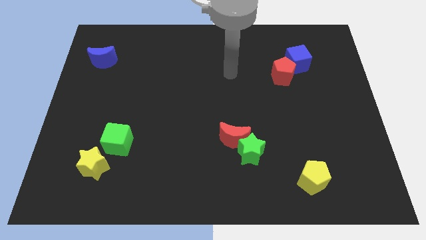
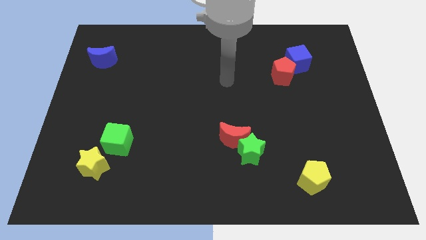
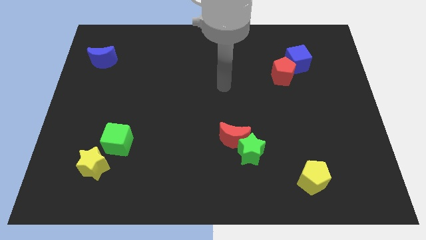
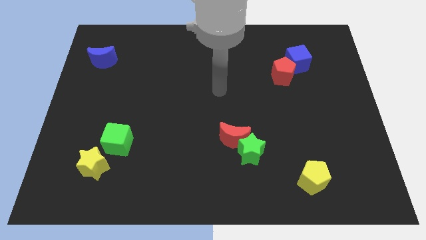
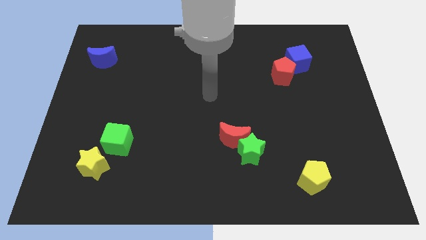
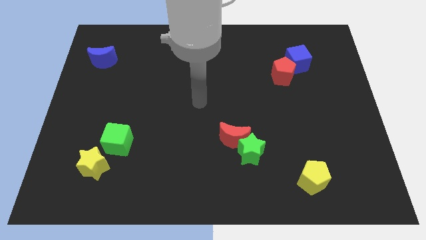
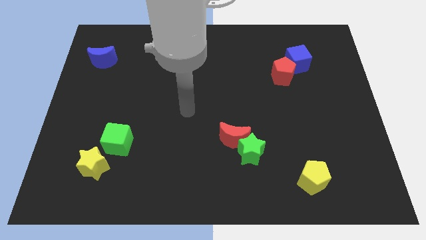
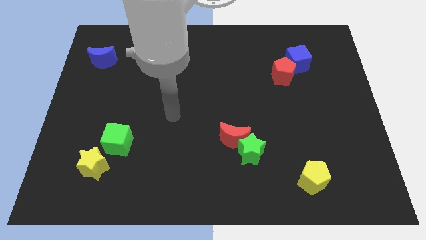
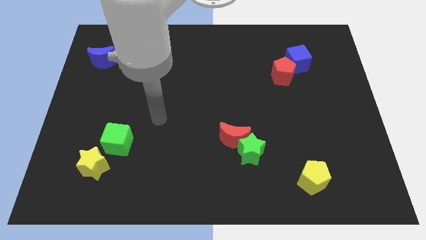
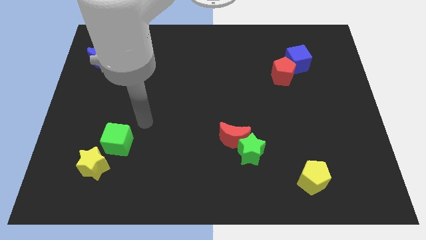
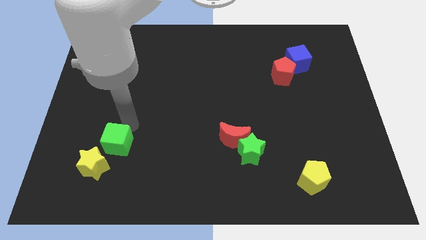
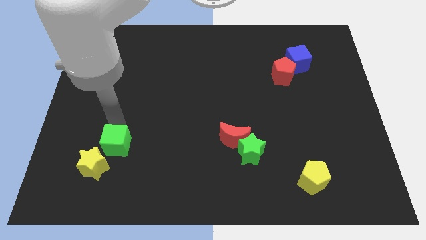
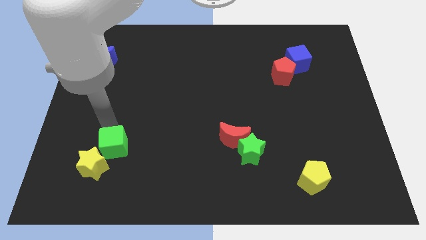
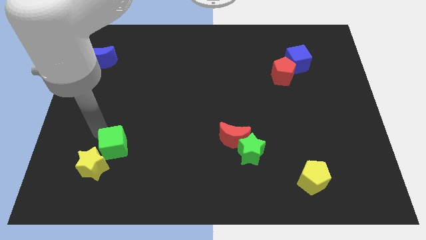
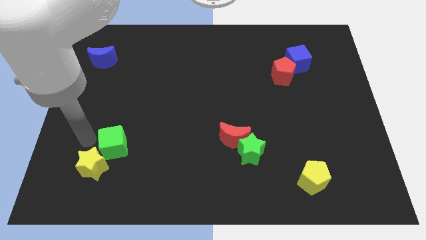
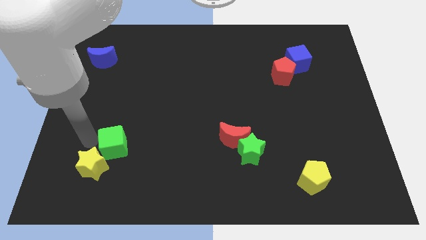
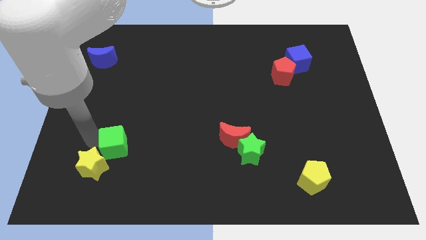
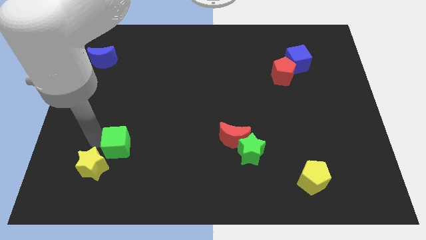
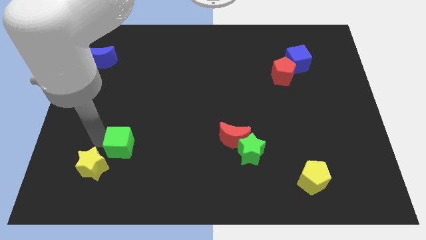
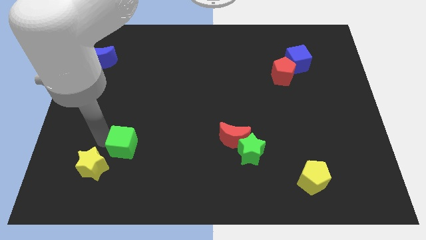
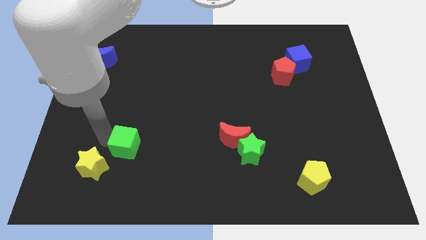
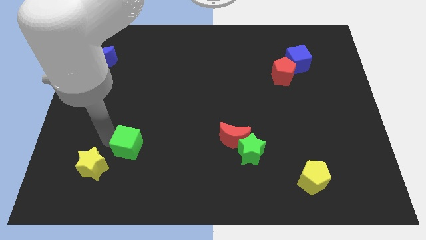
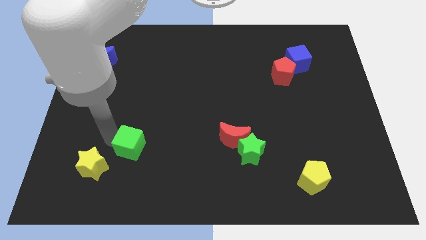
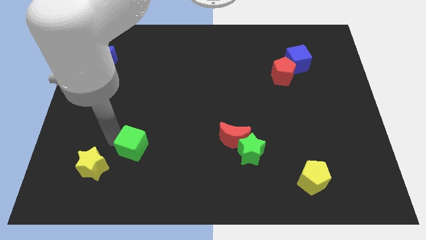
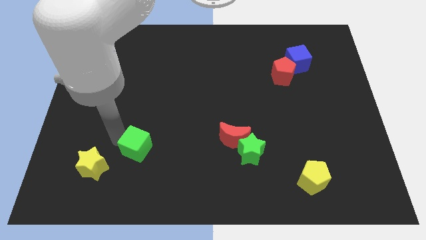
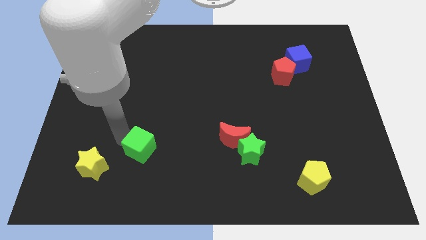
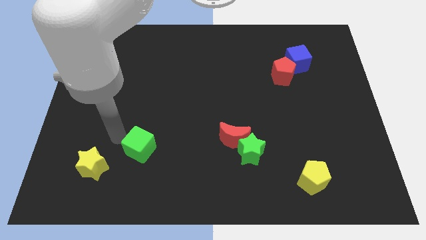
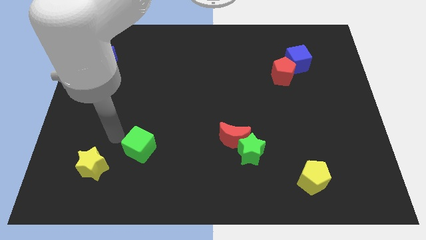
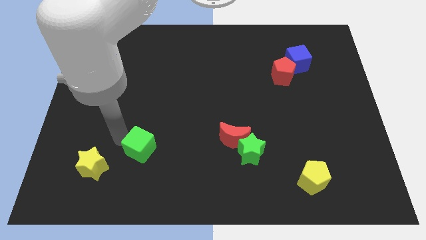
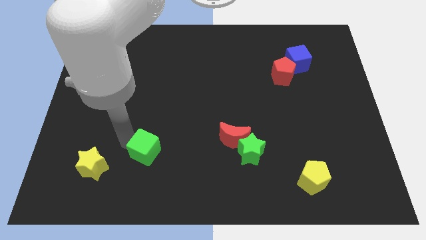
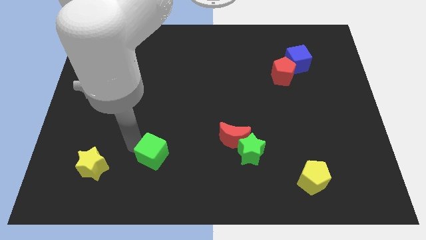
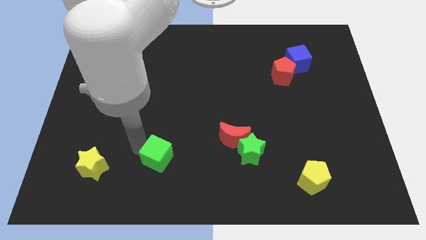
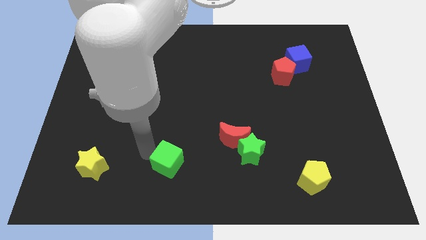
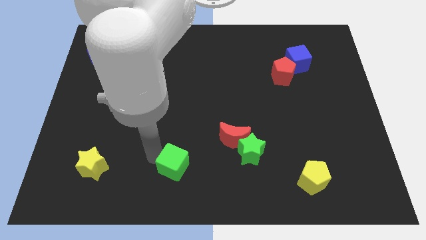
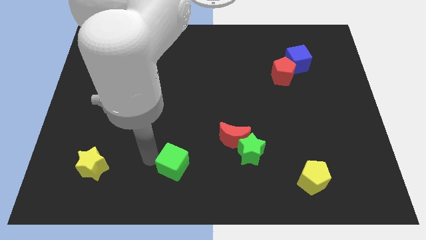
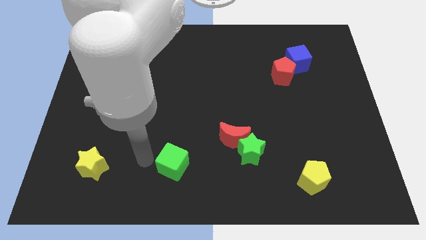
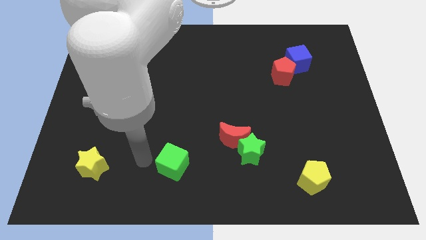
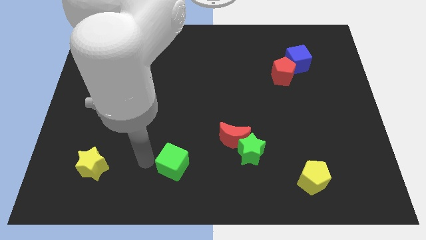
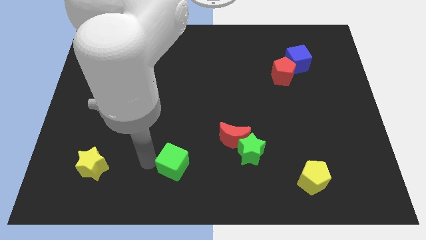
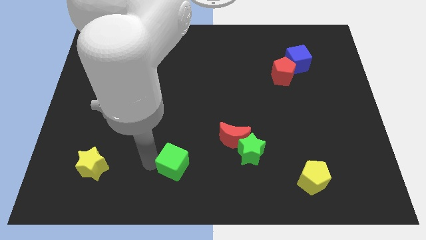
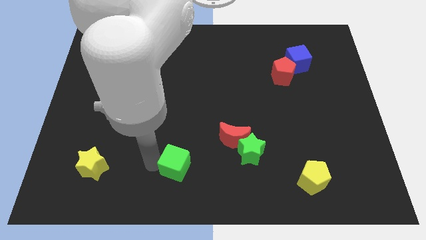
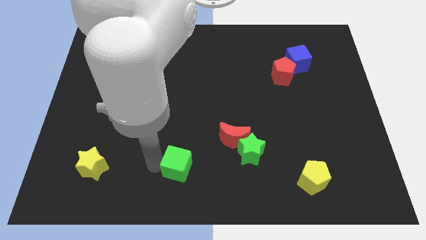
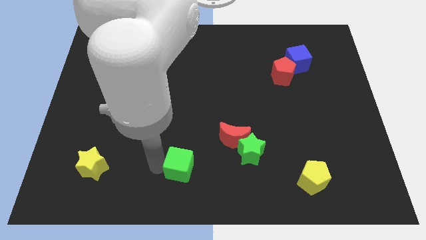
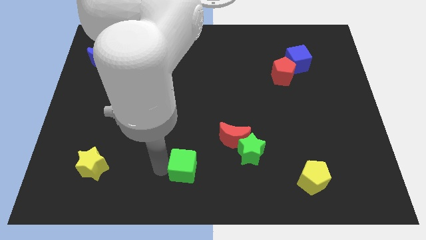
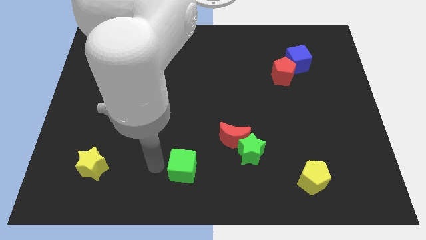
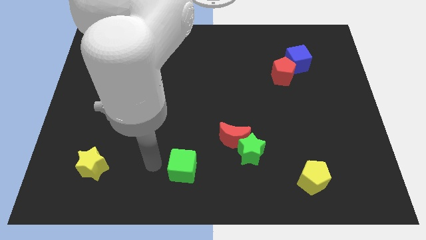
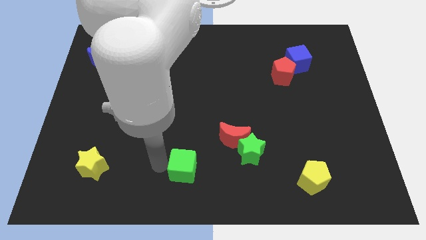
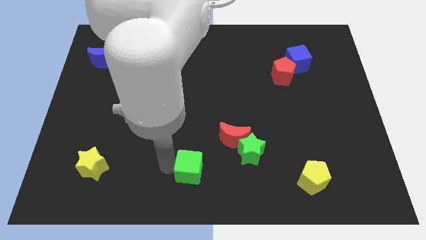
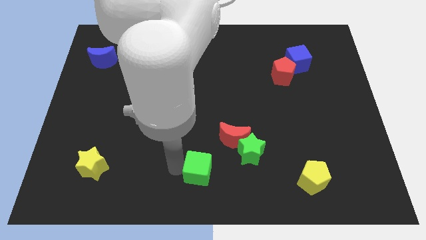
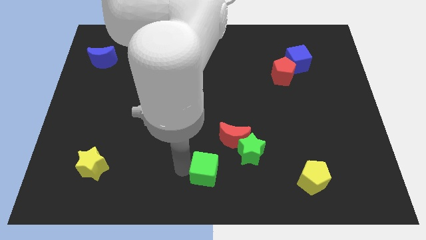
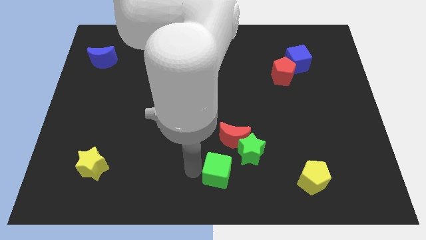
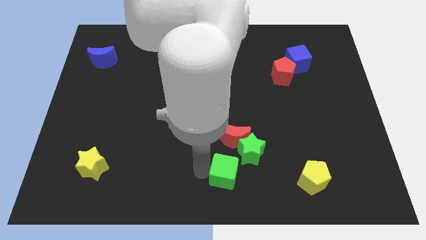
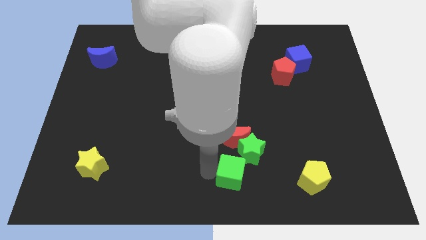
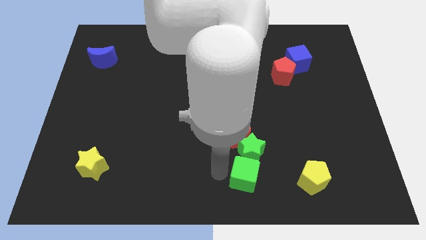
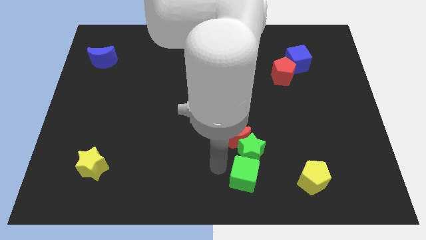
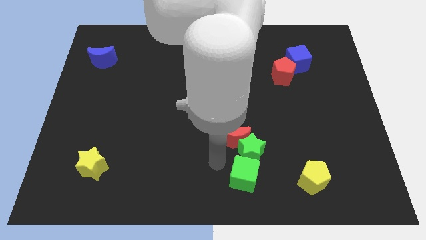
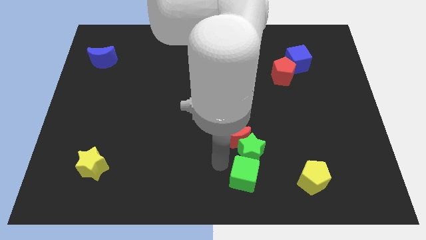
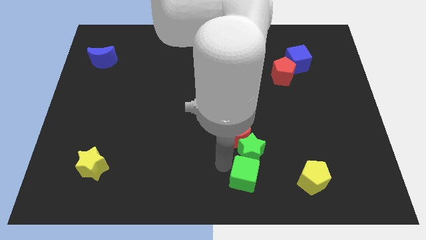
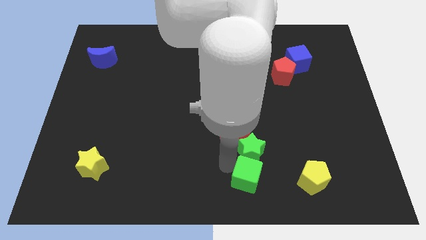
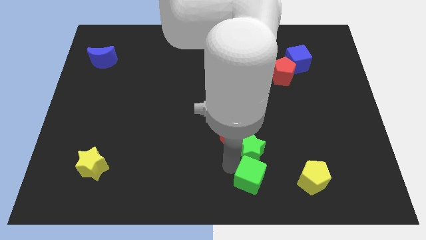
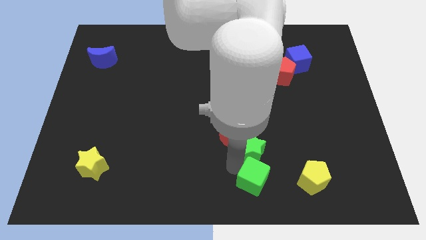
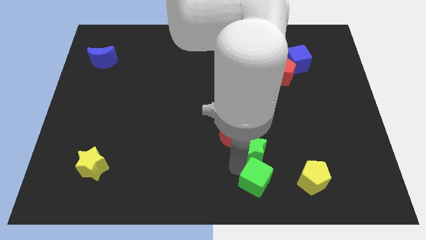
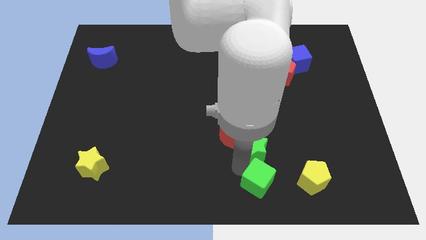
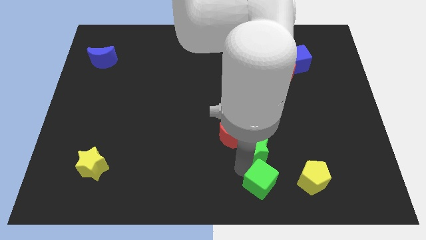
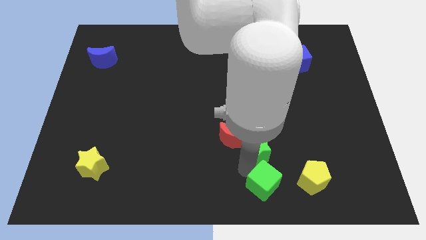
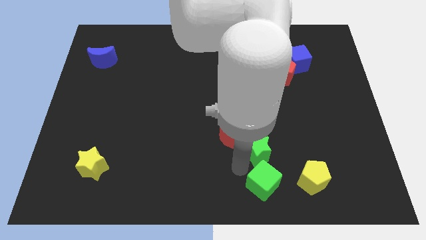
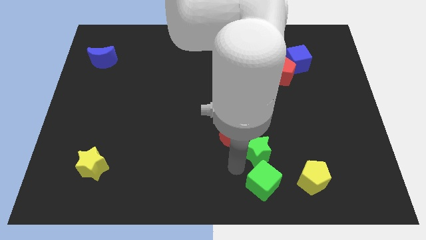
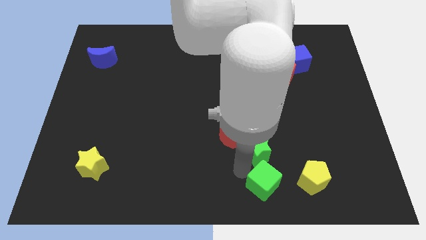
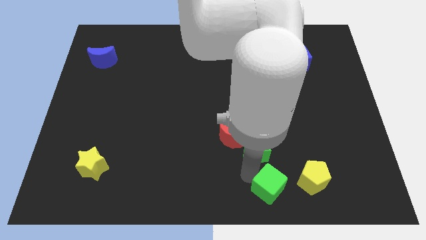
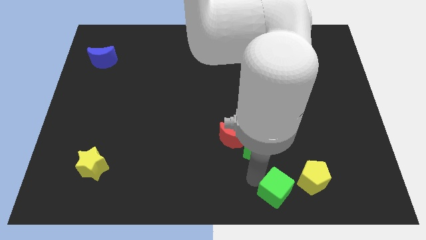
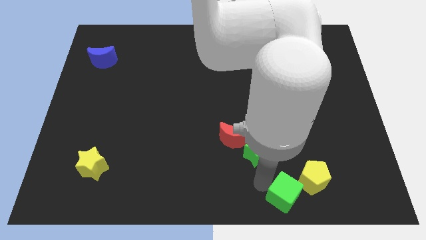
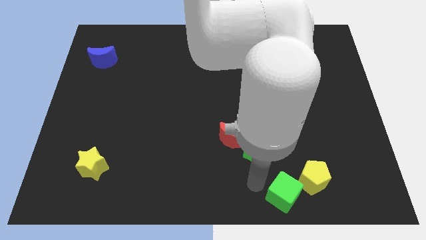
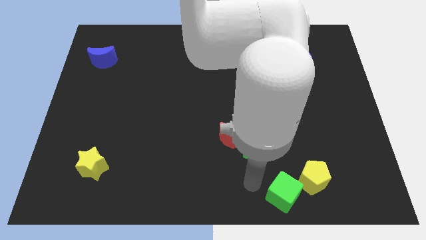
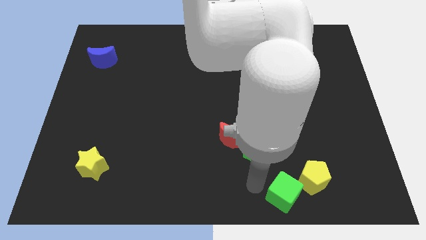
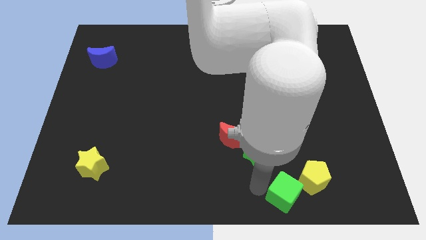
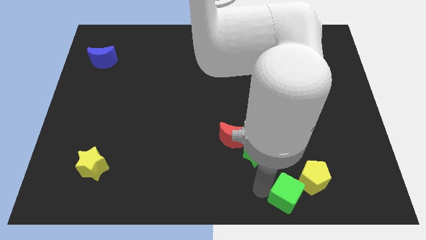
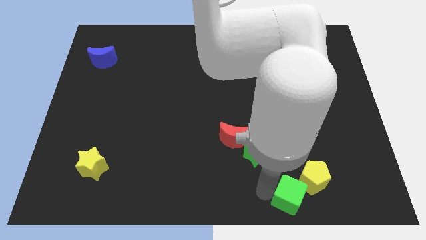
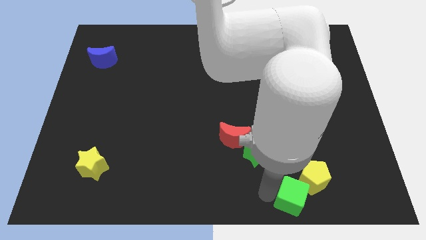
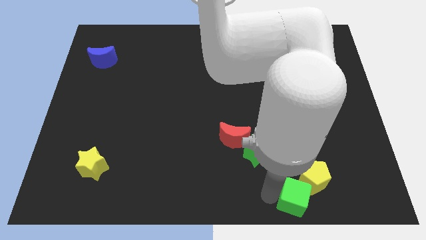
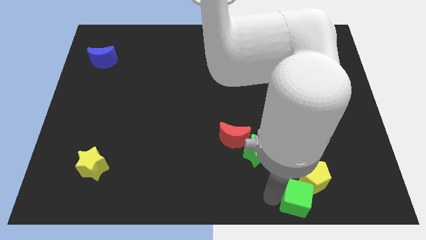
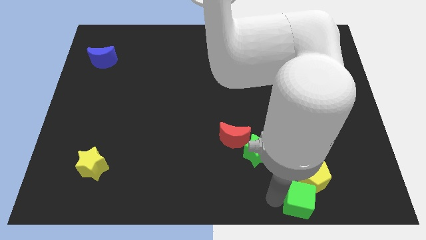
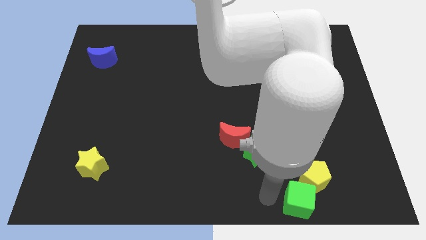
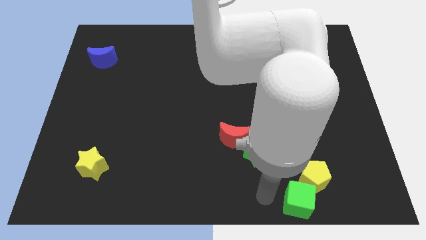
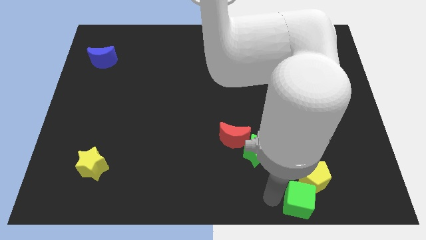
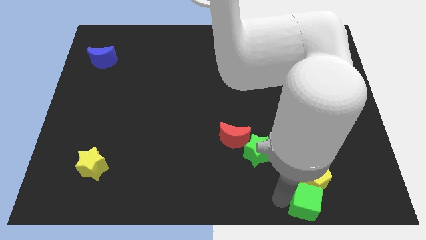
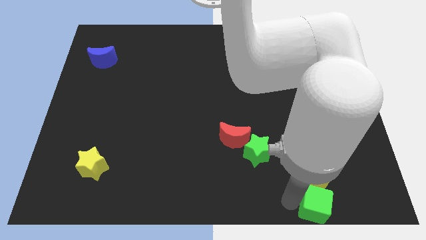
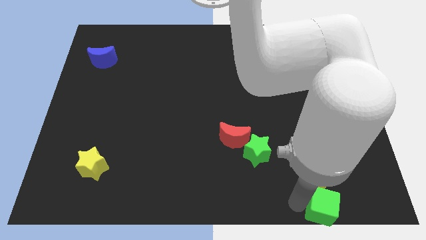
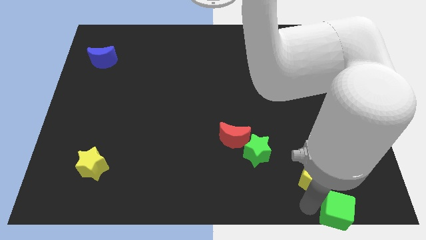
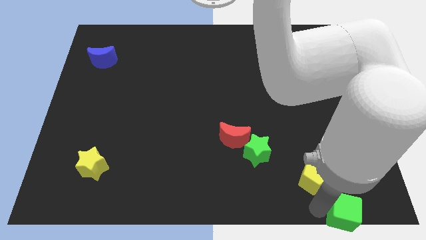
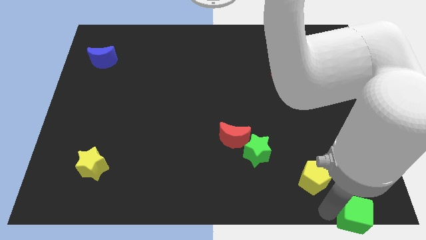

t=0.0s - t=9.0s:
slide the green cube to the bottom right of the board
